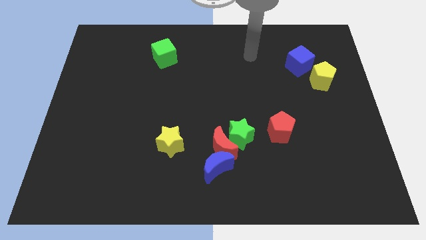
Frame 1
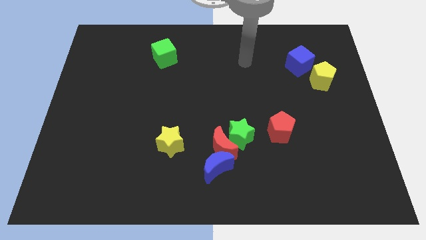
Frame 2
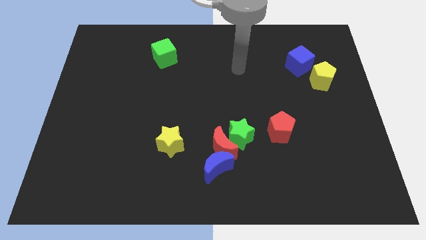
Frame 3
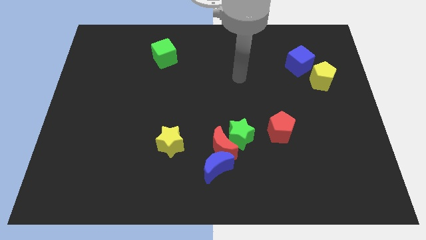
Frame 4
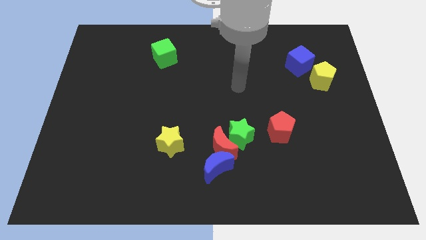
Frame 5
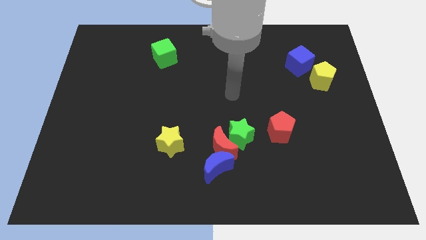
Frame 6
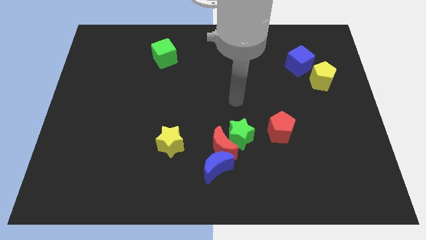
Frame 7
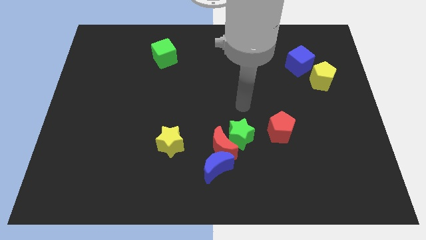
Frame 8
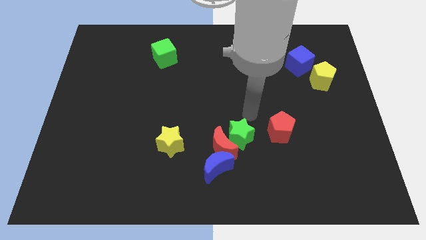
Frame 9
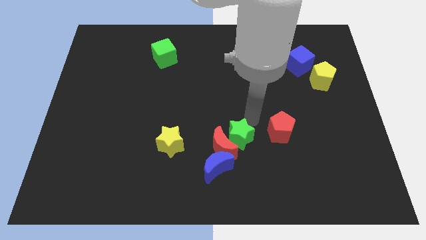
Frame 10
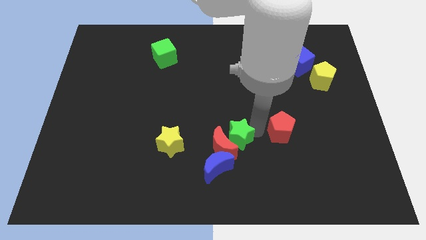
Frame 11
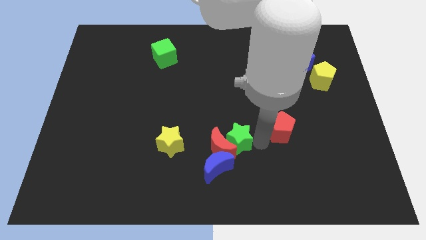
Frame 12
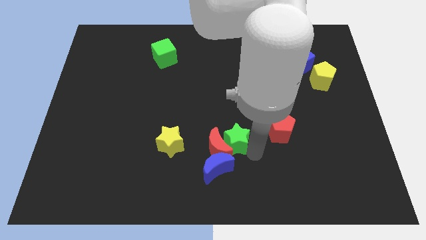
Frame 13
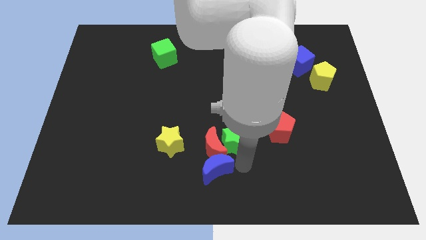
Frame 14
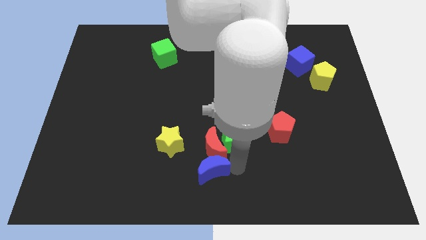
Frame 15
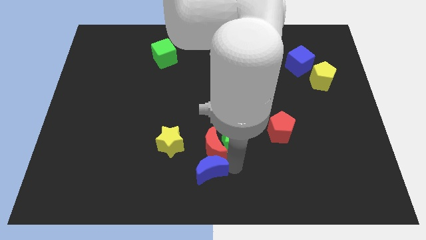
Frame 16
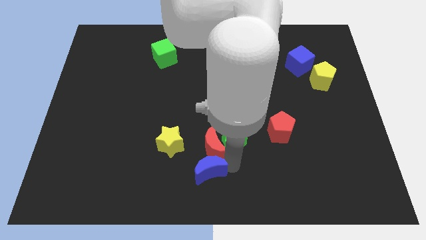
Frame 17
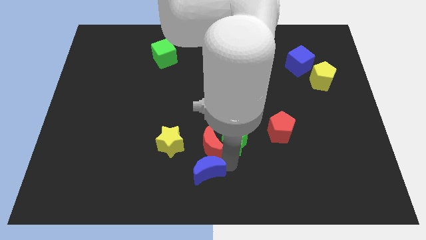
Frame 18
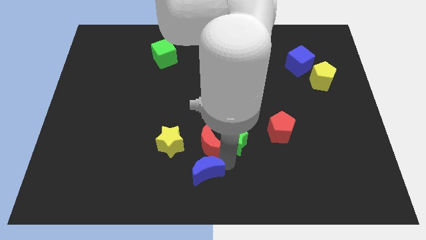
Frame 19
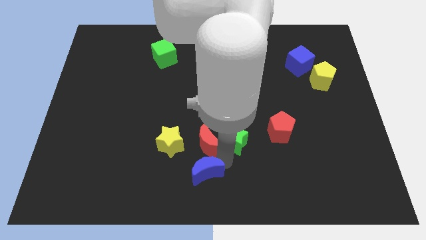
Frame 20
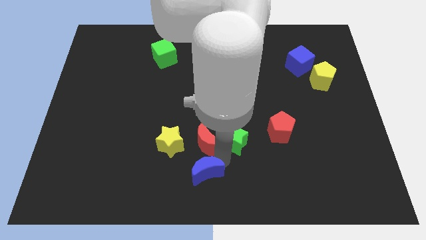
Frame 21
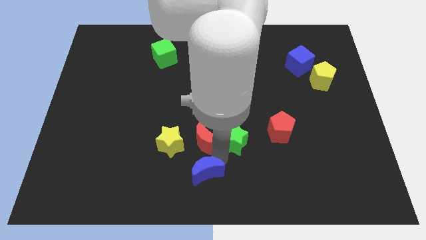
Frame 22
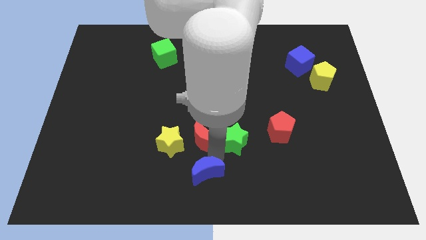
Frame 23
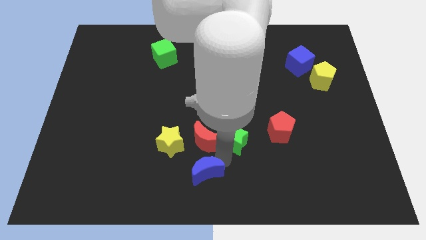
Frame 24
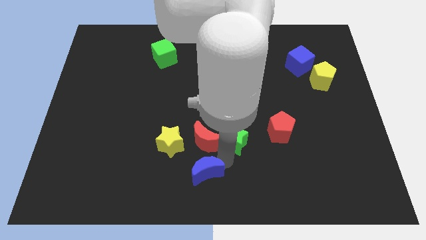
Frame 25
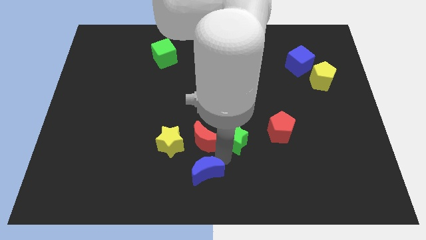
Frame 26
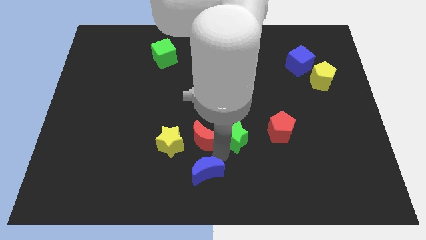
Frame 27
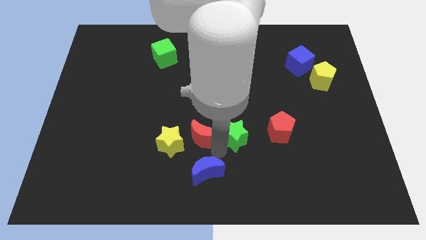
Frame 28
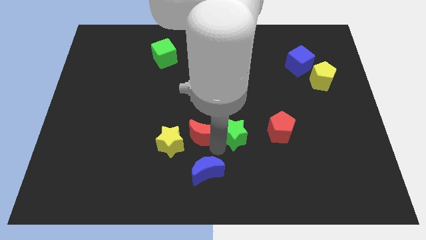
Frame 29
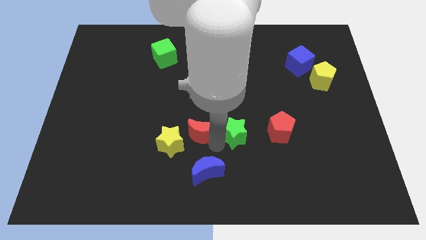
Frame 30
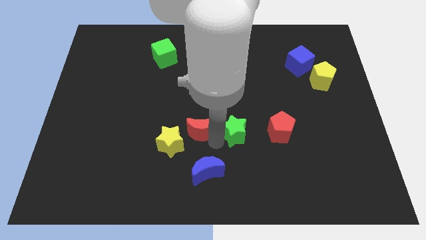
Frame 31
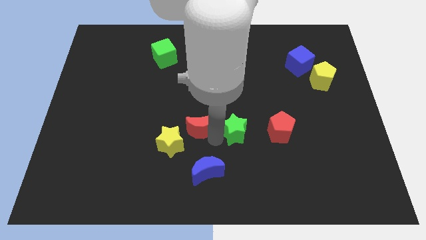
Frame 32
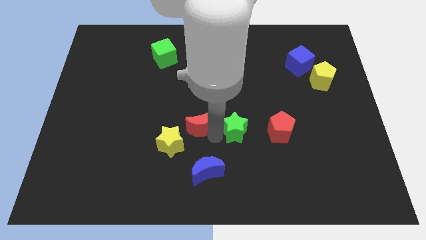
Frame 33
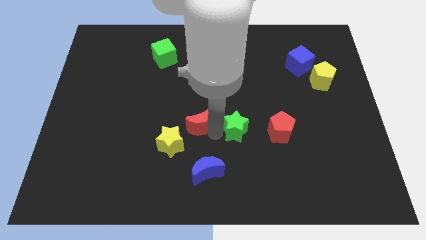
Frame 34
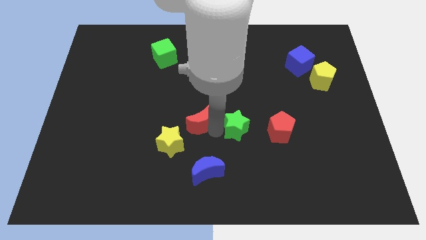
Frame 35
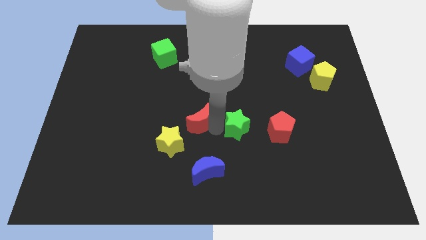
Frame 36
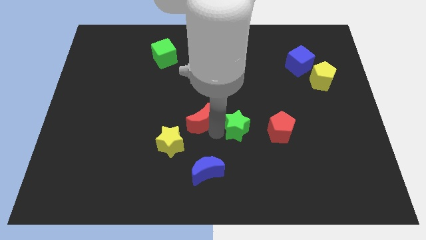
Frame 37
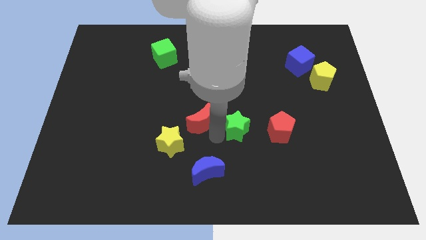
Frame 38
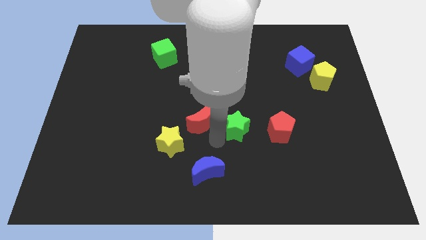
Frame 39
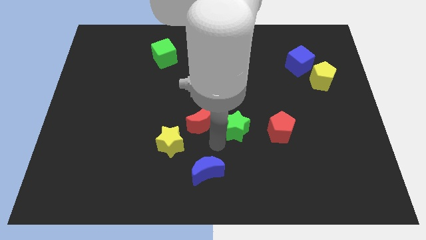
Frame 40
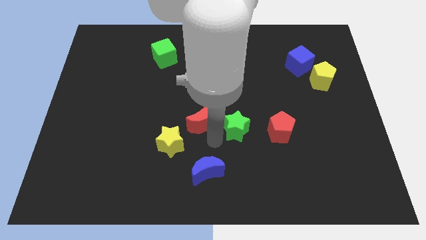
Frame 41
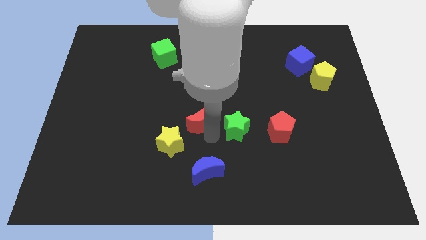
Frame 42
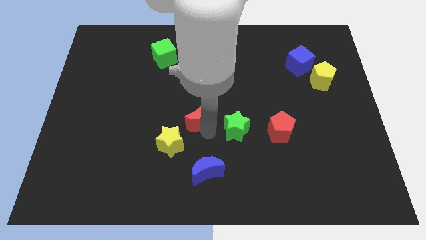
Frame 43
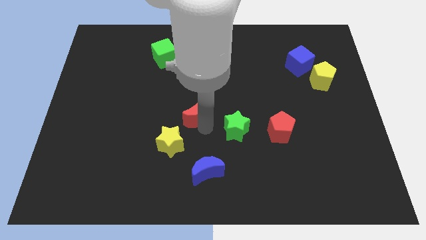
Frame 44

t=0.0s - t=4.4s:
separate the red moon from the blue moon and green star

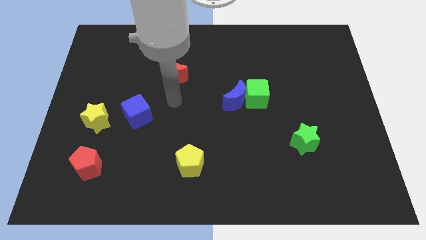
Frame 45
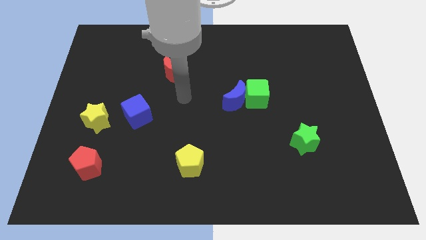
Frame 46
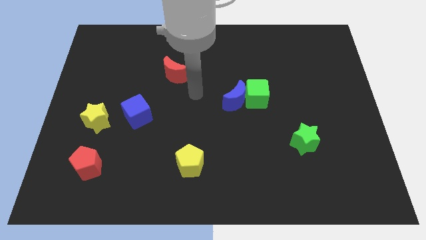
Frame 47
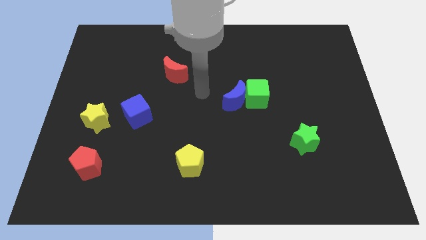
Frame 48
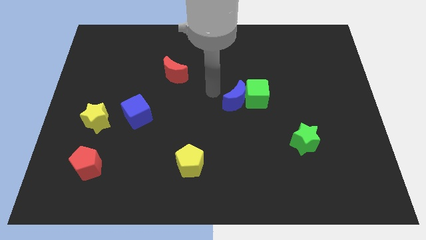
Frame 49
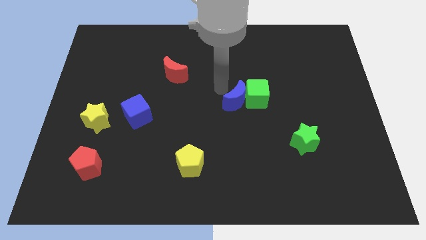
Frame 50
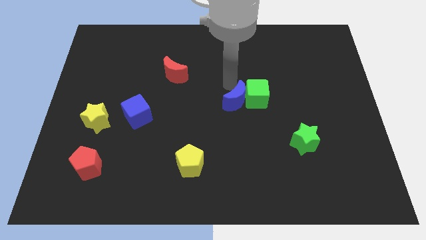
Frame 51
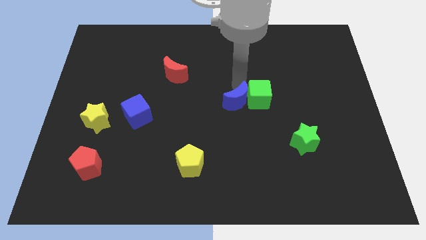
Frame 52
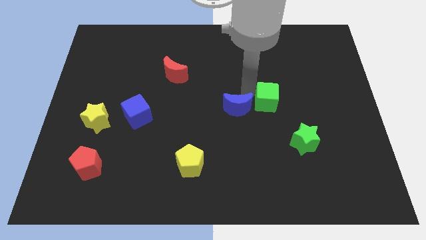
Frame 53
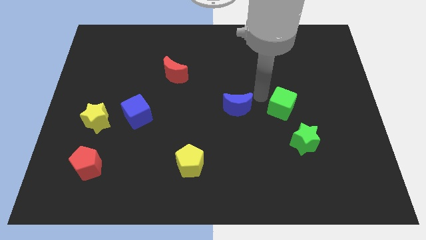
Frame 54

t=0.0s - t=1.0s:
move the blue moon away from the green cube

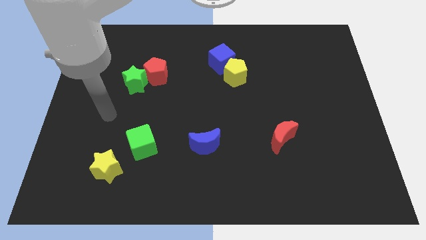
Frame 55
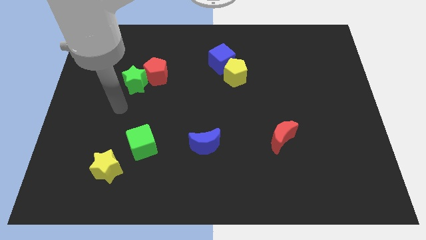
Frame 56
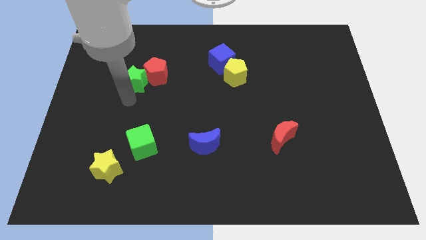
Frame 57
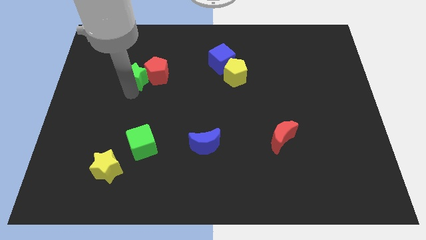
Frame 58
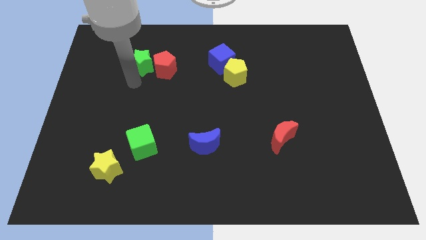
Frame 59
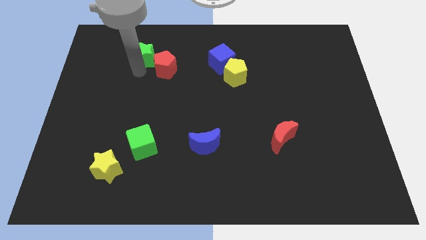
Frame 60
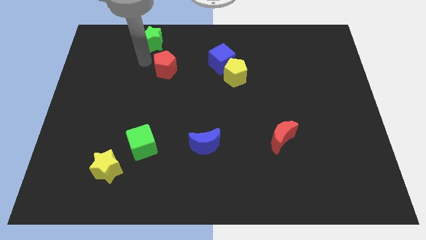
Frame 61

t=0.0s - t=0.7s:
separate the red pentagon from the green star

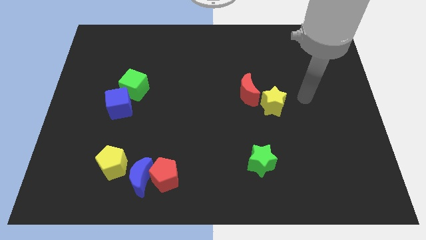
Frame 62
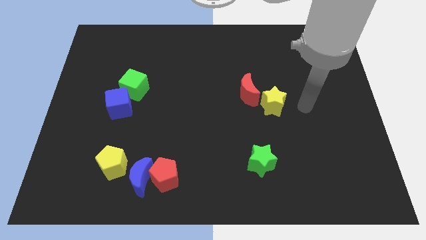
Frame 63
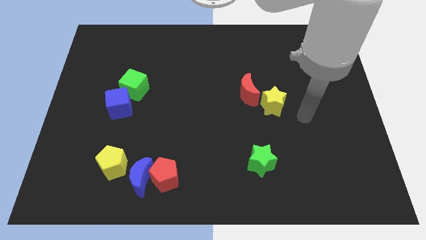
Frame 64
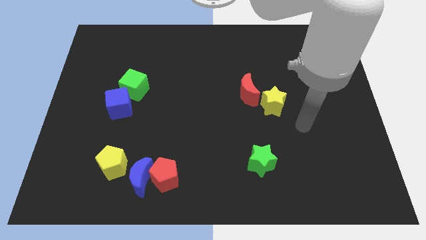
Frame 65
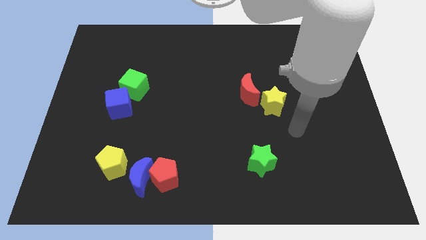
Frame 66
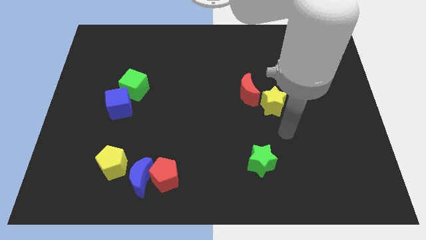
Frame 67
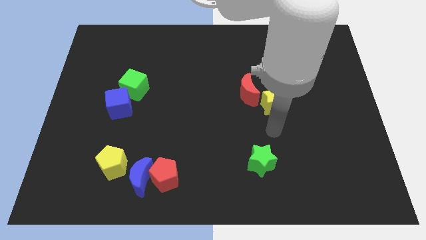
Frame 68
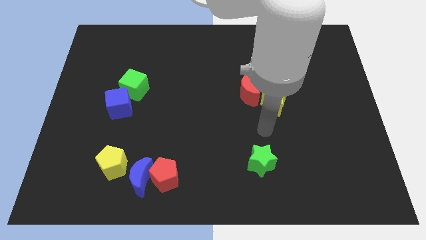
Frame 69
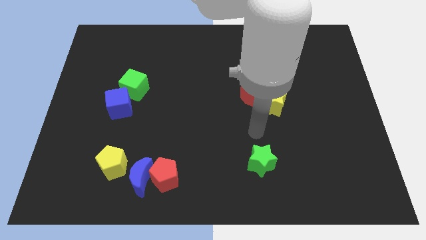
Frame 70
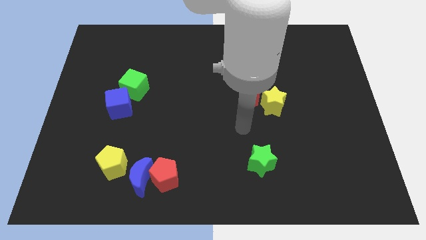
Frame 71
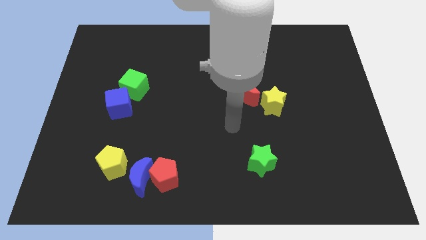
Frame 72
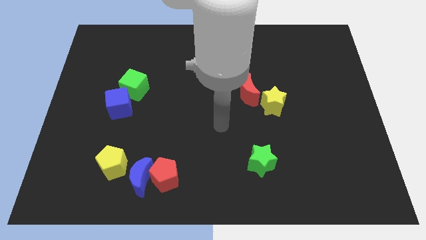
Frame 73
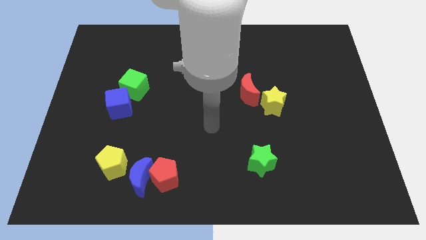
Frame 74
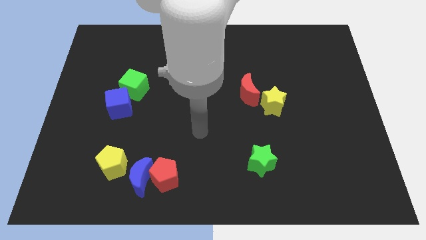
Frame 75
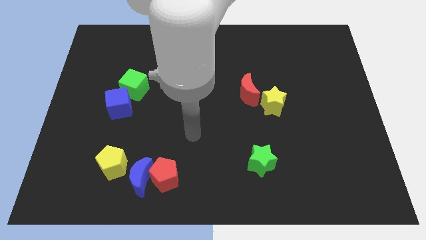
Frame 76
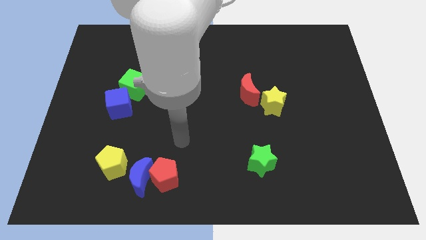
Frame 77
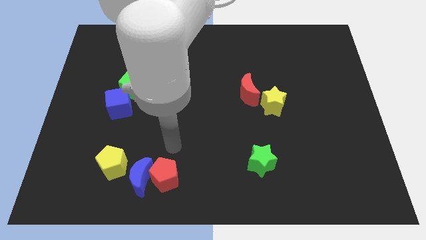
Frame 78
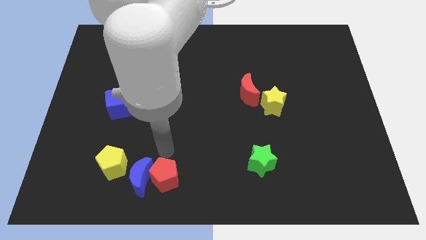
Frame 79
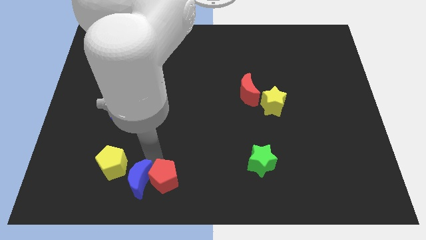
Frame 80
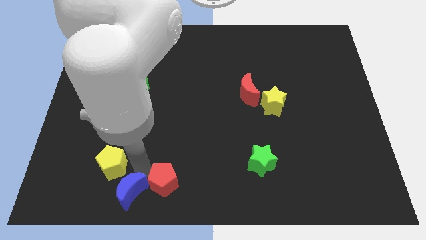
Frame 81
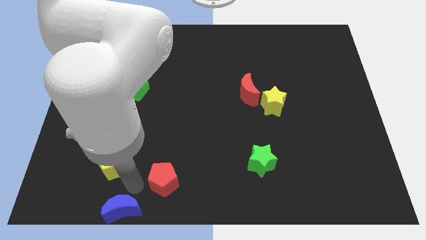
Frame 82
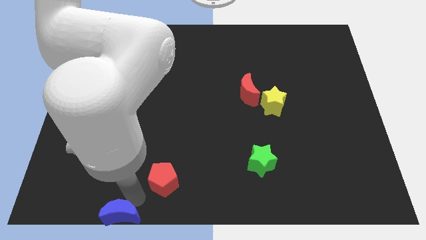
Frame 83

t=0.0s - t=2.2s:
separate the red pentagon from the blue moon

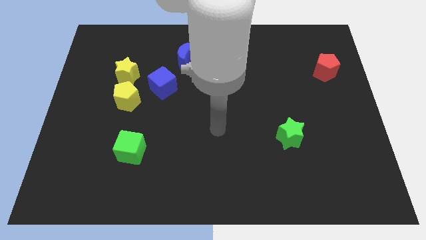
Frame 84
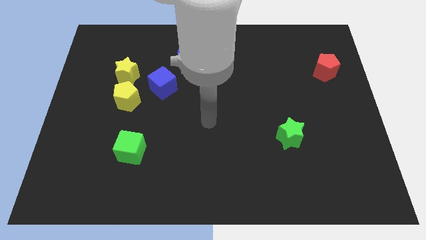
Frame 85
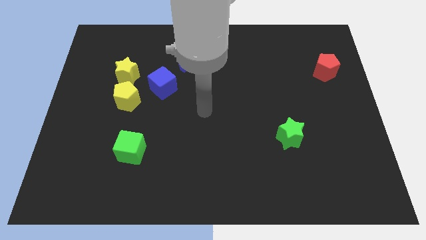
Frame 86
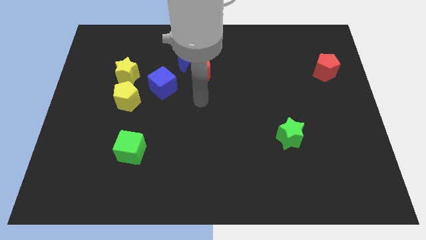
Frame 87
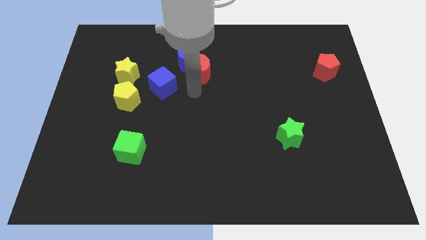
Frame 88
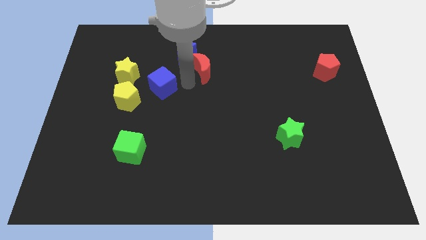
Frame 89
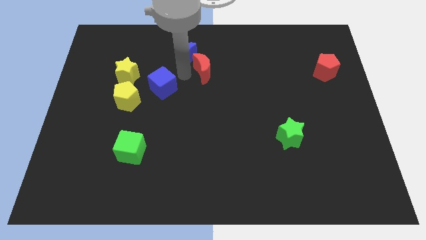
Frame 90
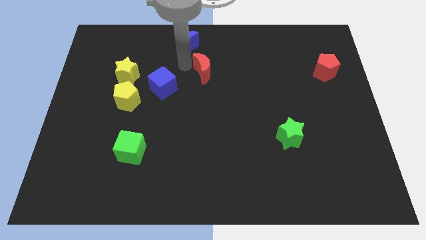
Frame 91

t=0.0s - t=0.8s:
pull the red moon apart from the blue moon

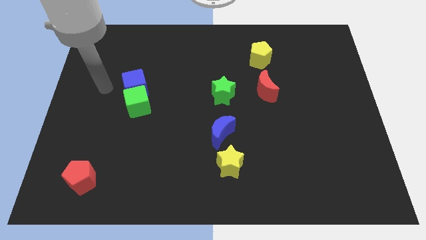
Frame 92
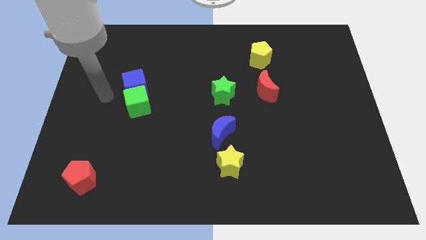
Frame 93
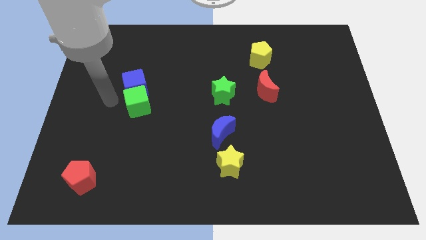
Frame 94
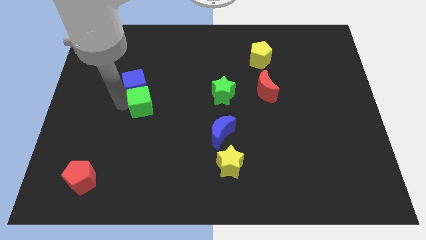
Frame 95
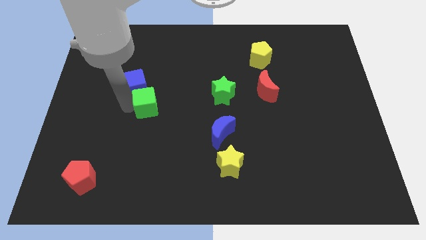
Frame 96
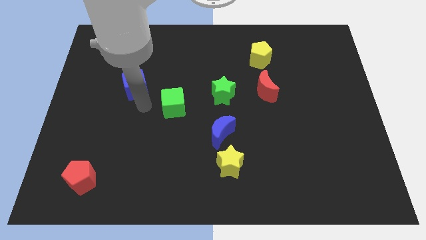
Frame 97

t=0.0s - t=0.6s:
separate the blue cube from the green cube
